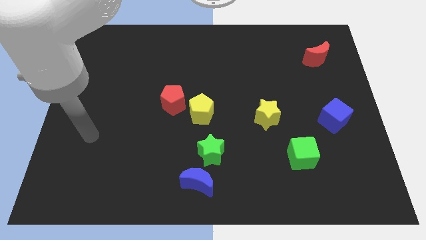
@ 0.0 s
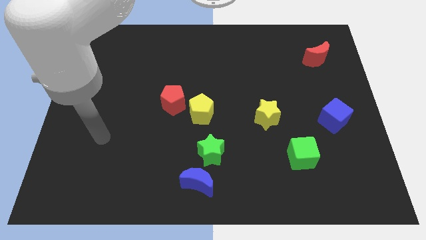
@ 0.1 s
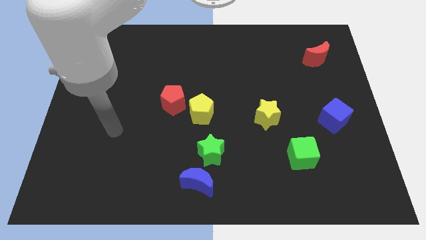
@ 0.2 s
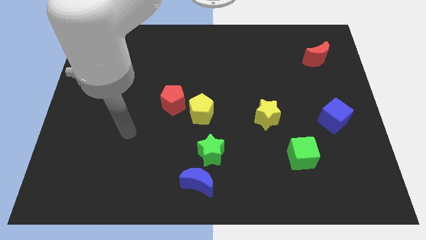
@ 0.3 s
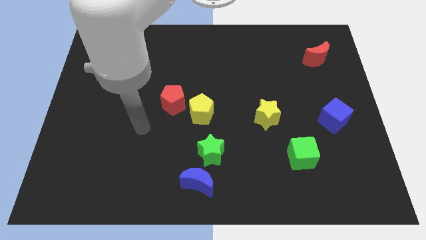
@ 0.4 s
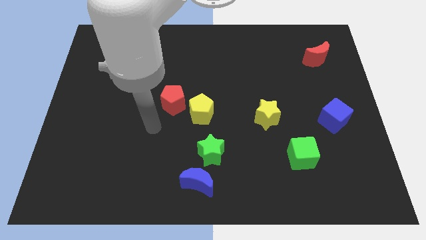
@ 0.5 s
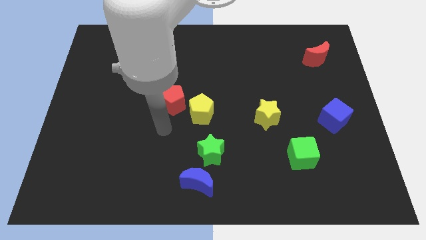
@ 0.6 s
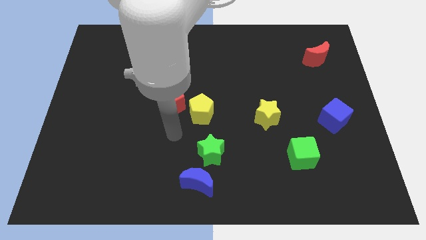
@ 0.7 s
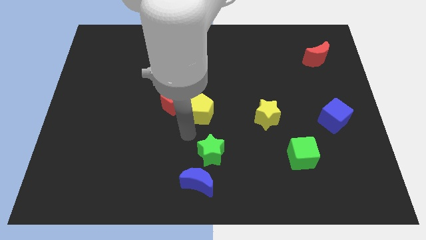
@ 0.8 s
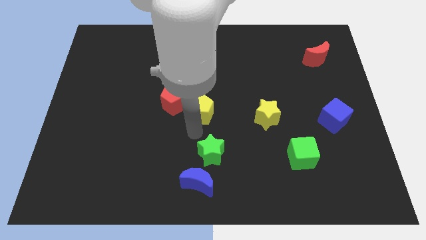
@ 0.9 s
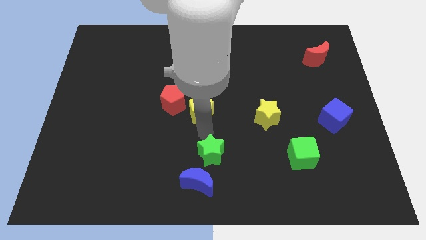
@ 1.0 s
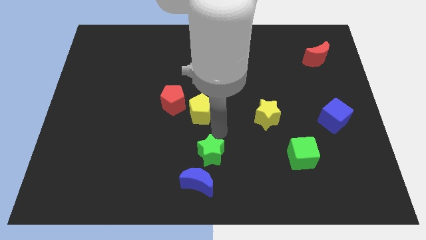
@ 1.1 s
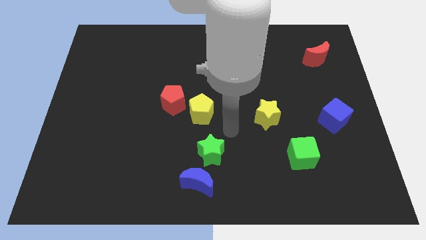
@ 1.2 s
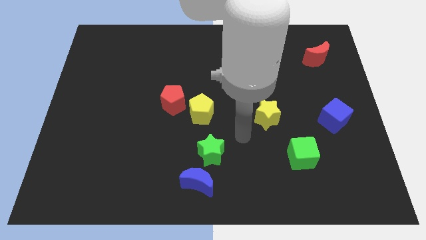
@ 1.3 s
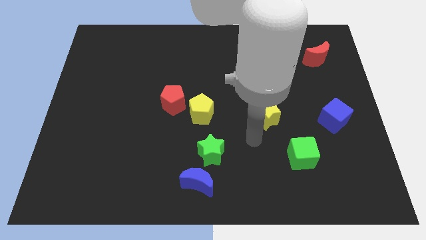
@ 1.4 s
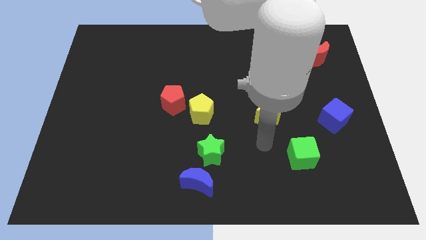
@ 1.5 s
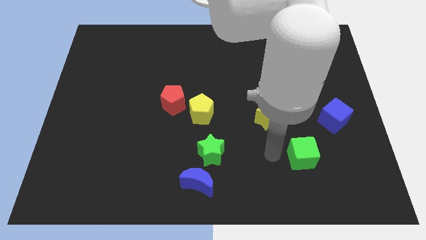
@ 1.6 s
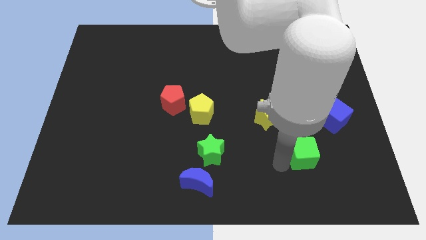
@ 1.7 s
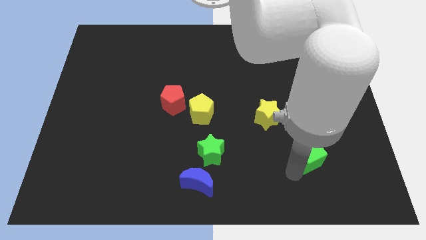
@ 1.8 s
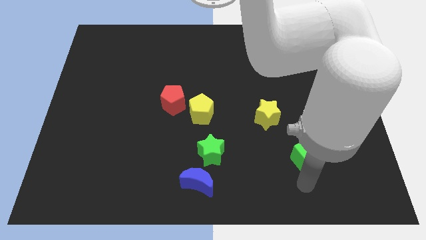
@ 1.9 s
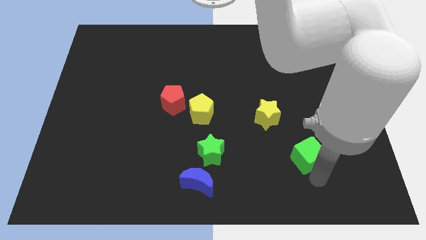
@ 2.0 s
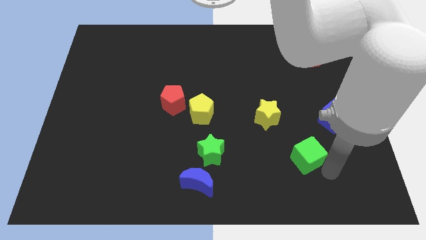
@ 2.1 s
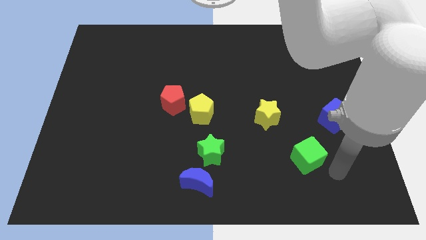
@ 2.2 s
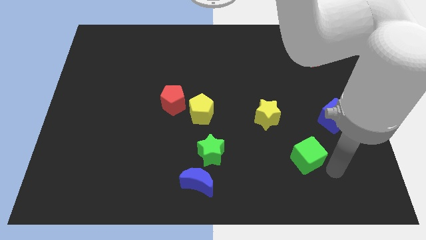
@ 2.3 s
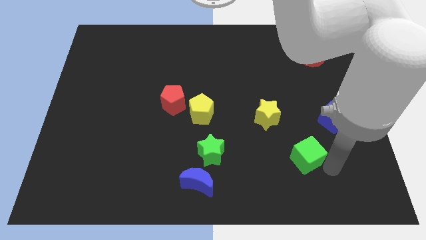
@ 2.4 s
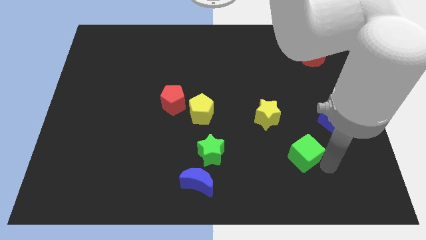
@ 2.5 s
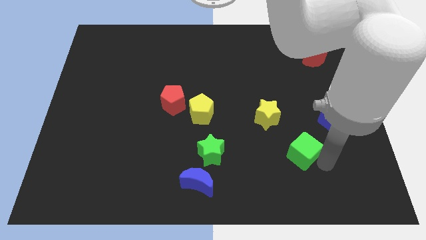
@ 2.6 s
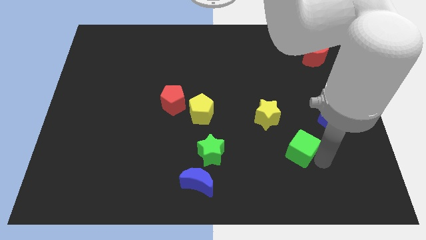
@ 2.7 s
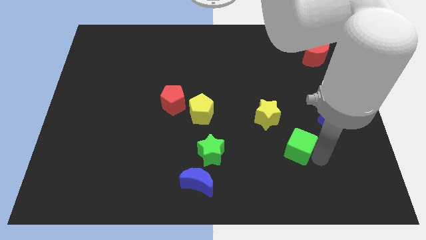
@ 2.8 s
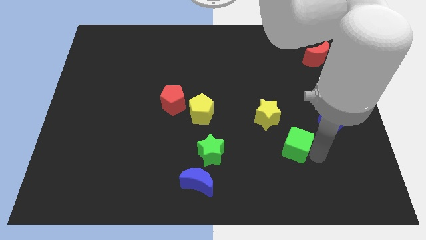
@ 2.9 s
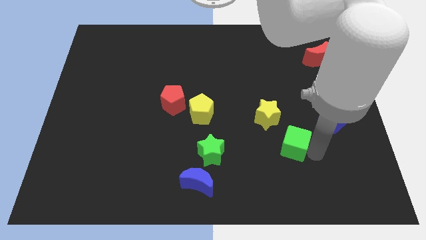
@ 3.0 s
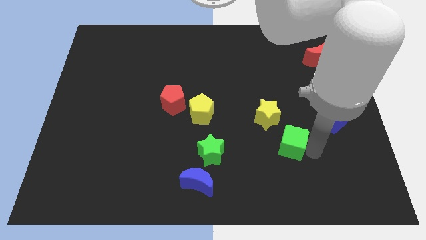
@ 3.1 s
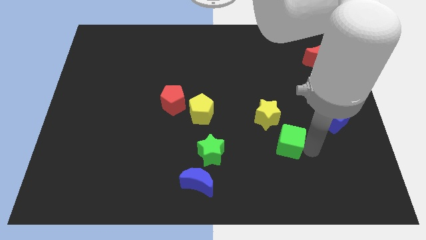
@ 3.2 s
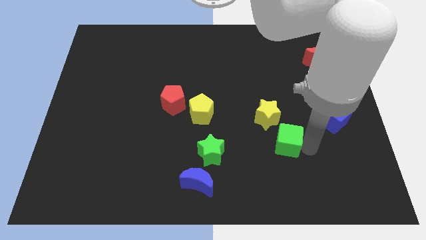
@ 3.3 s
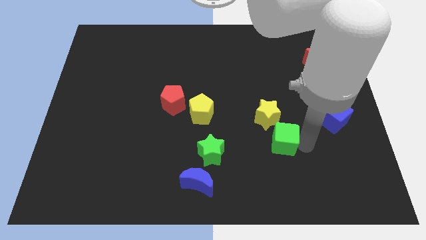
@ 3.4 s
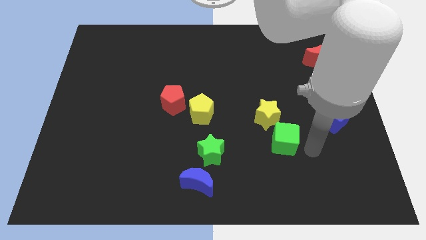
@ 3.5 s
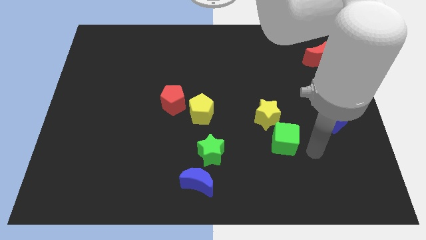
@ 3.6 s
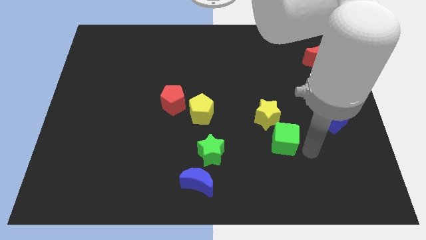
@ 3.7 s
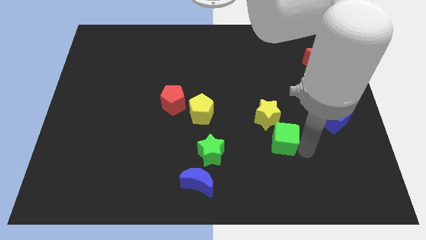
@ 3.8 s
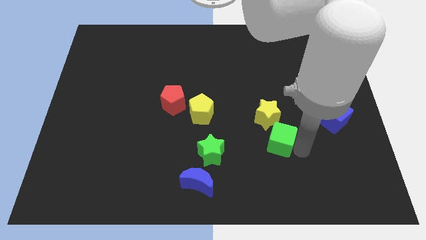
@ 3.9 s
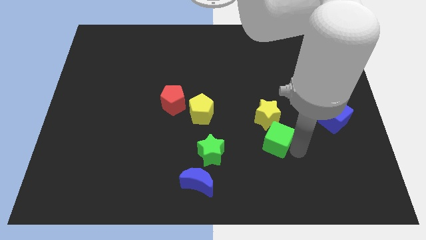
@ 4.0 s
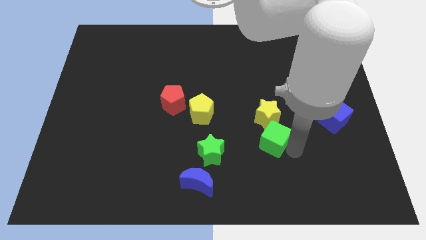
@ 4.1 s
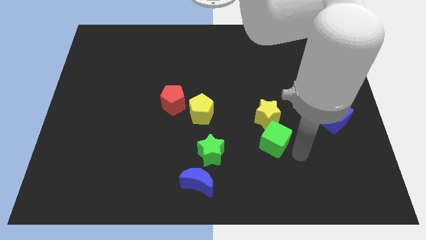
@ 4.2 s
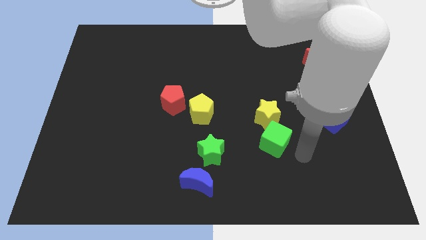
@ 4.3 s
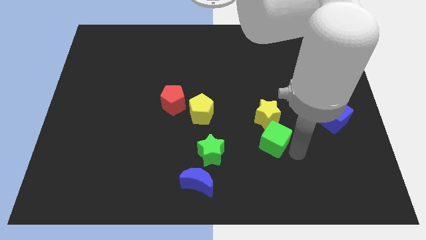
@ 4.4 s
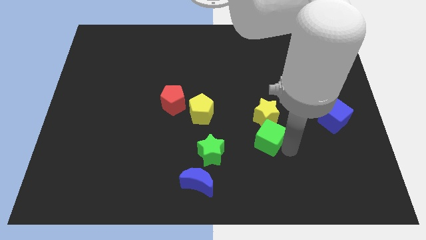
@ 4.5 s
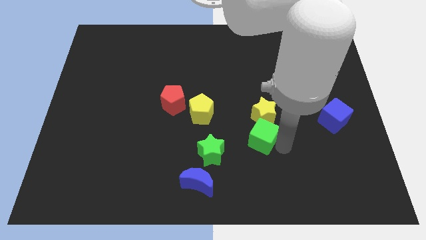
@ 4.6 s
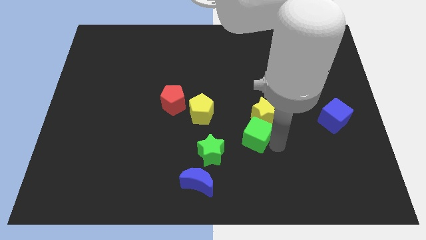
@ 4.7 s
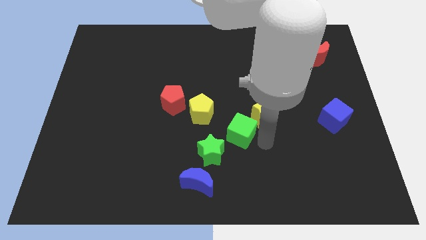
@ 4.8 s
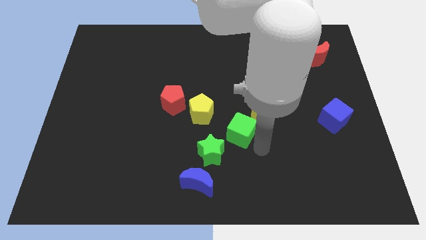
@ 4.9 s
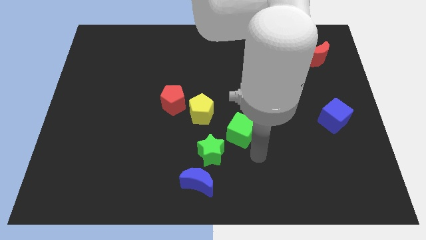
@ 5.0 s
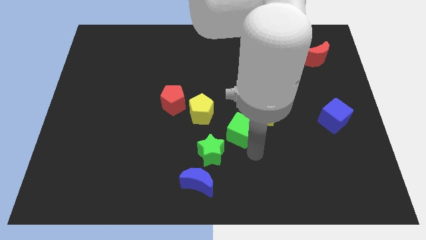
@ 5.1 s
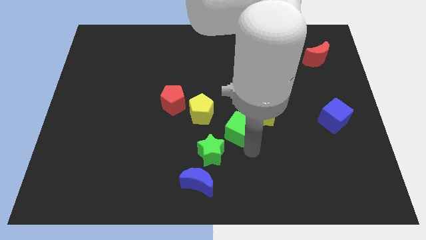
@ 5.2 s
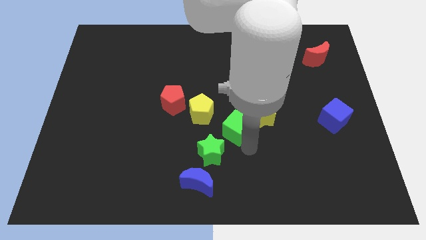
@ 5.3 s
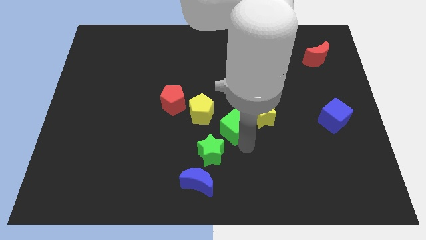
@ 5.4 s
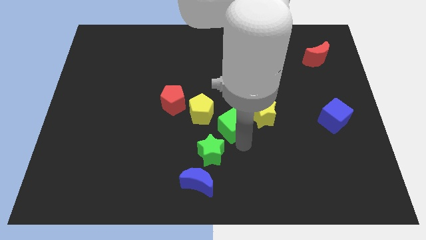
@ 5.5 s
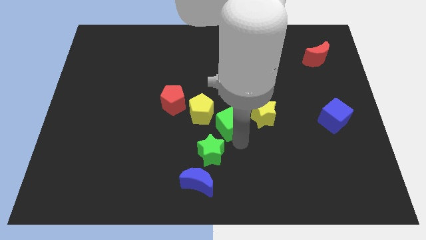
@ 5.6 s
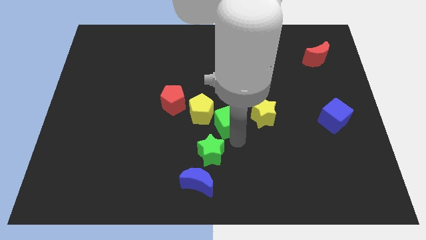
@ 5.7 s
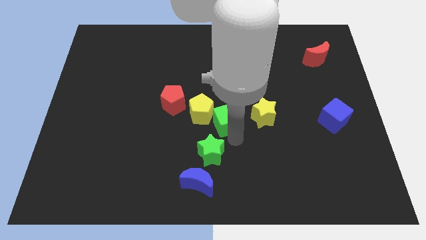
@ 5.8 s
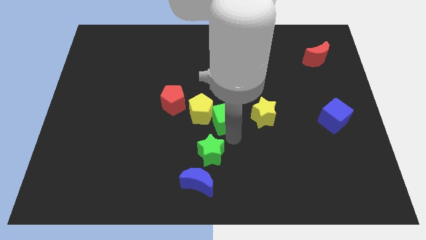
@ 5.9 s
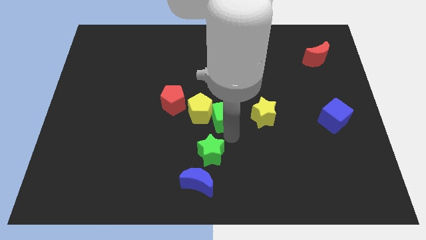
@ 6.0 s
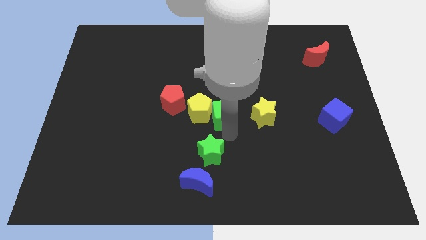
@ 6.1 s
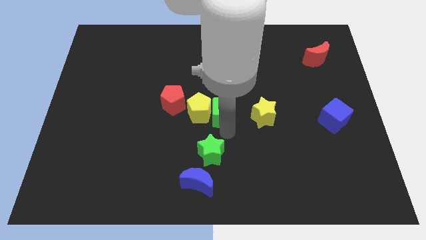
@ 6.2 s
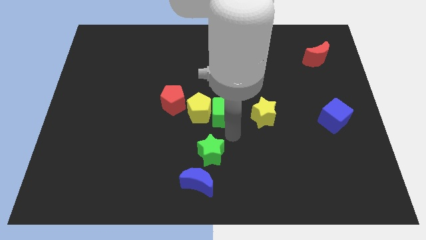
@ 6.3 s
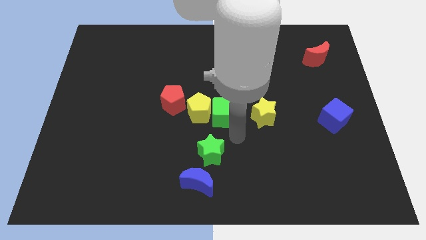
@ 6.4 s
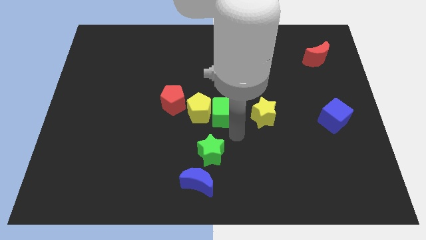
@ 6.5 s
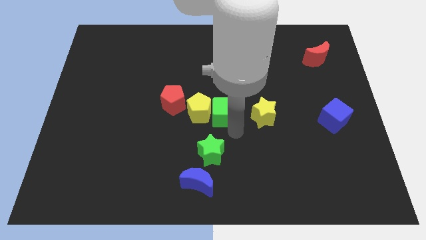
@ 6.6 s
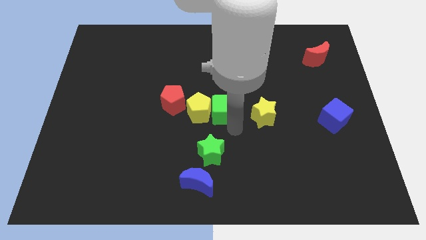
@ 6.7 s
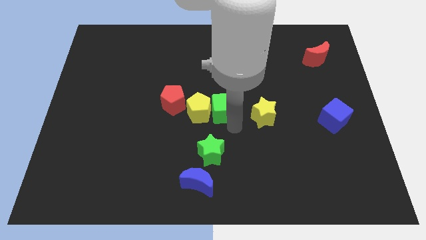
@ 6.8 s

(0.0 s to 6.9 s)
move the green cube diagonally upwards and to the left

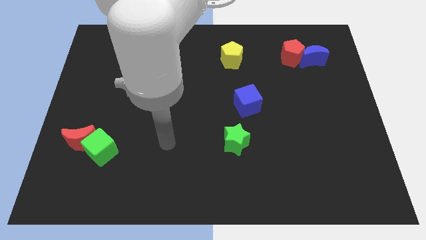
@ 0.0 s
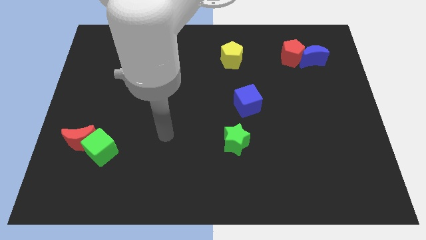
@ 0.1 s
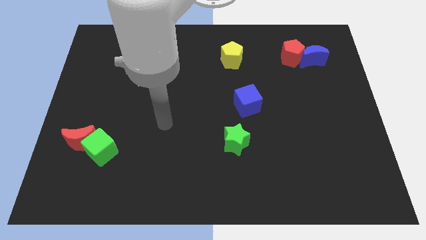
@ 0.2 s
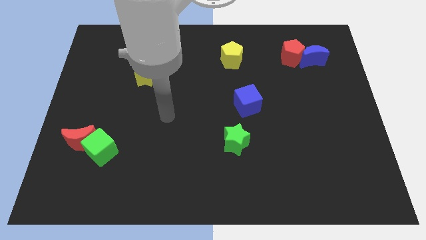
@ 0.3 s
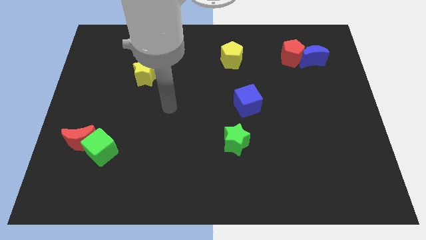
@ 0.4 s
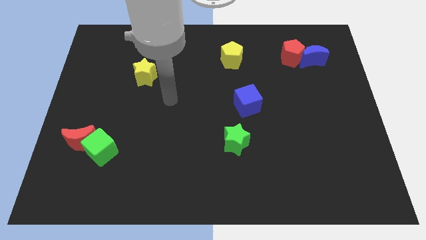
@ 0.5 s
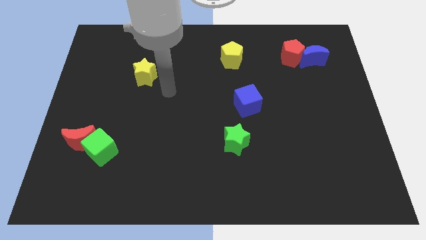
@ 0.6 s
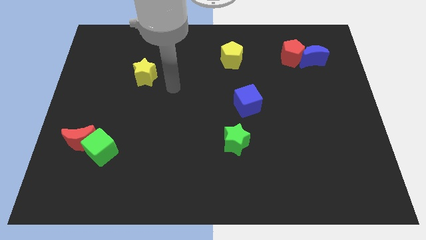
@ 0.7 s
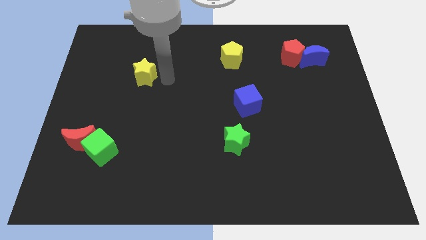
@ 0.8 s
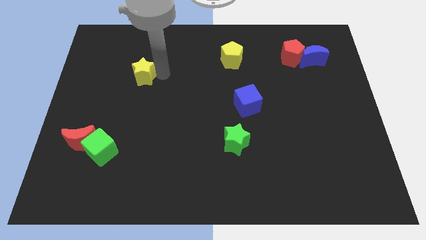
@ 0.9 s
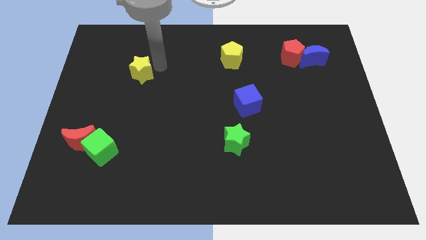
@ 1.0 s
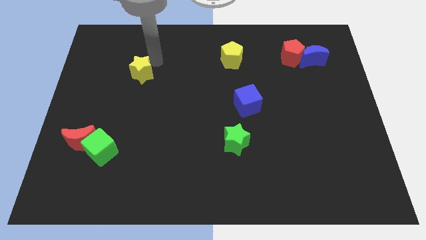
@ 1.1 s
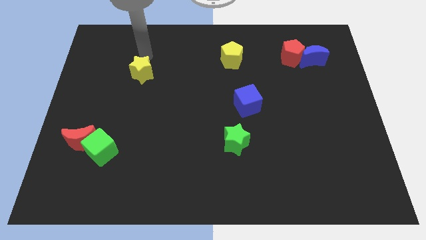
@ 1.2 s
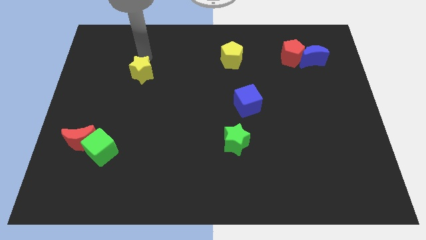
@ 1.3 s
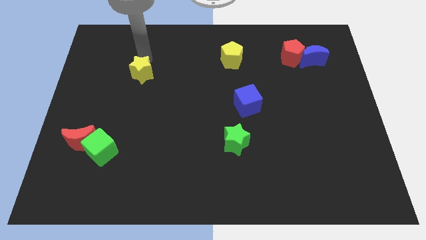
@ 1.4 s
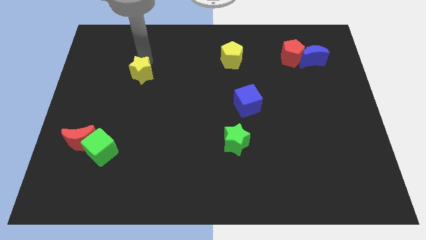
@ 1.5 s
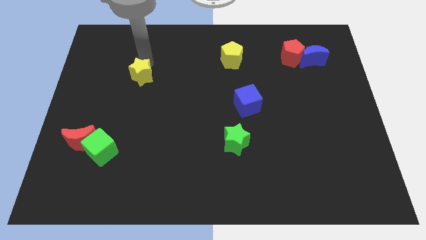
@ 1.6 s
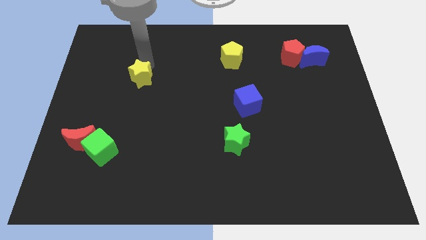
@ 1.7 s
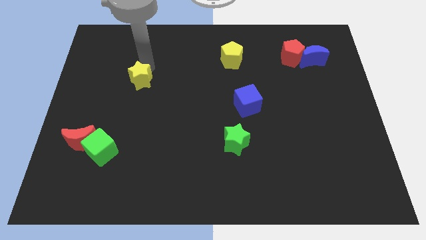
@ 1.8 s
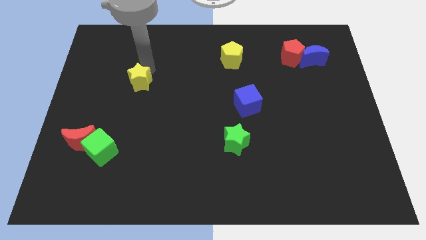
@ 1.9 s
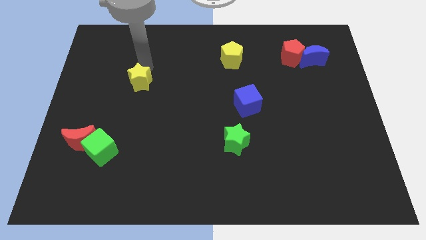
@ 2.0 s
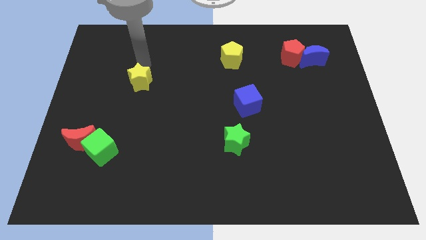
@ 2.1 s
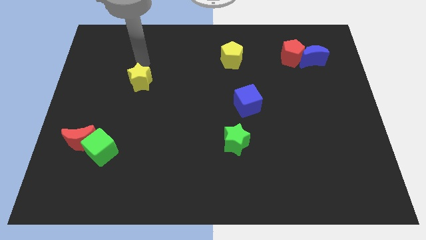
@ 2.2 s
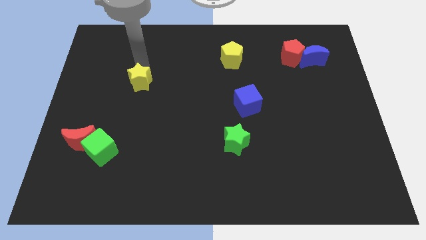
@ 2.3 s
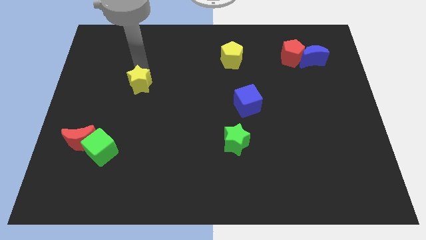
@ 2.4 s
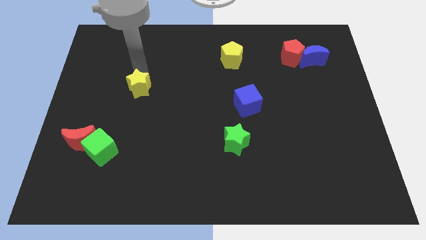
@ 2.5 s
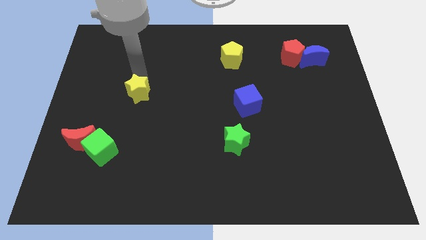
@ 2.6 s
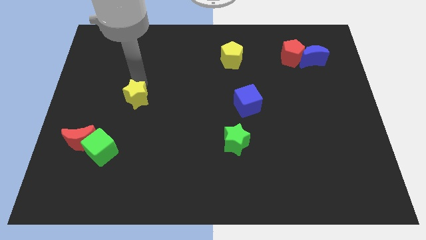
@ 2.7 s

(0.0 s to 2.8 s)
push the yellow star a little bit down
